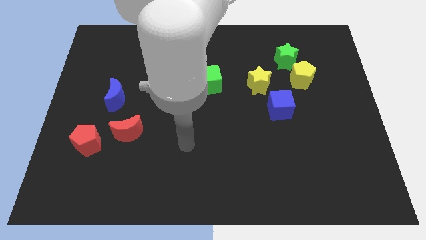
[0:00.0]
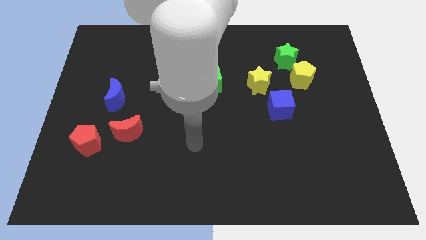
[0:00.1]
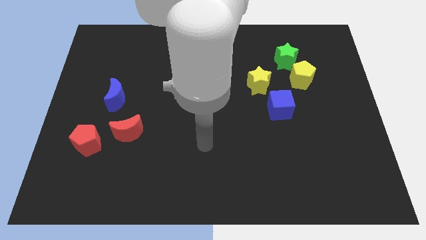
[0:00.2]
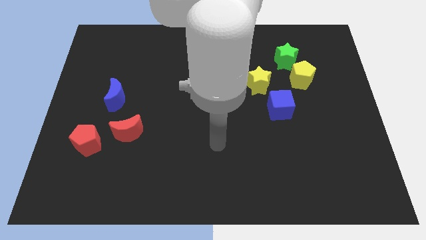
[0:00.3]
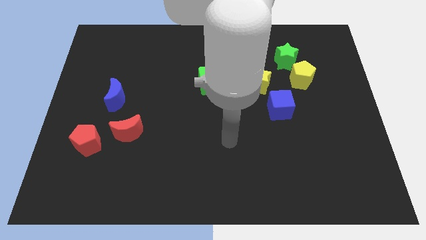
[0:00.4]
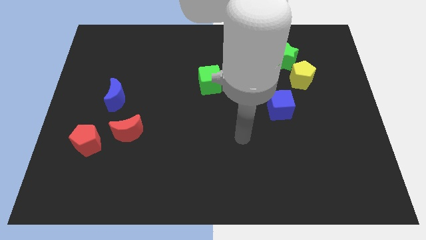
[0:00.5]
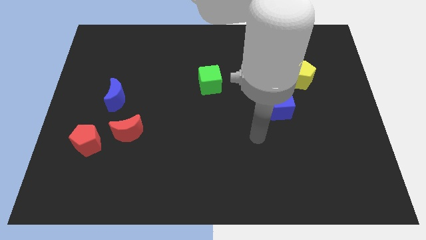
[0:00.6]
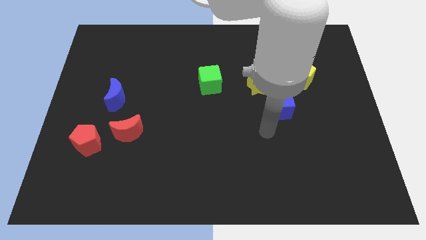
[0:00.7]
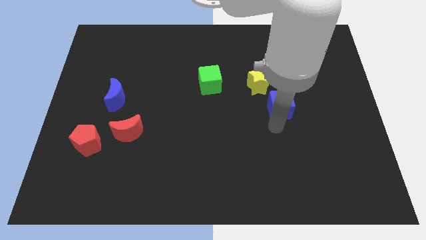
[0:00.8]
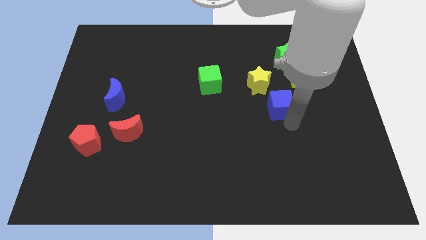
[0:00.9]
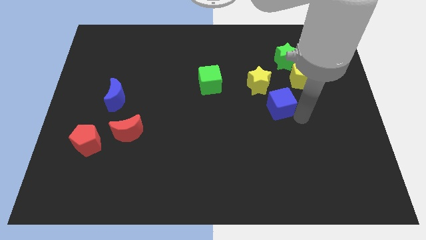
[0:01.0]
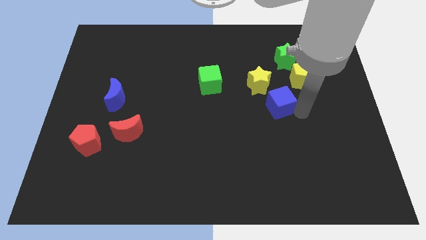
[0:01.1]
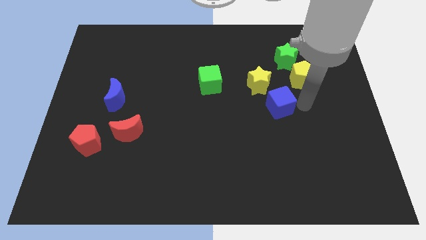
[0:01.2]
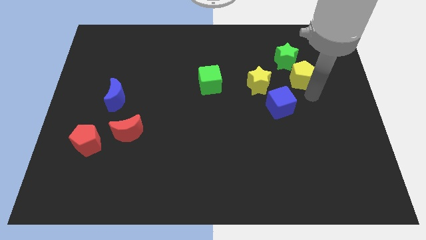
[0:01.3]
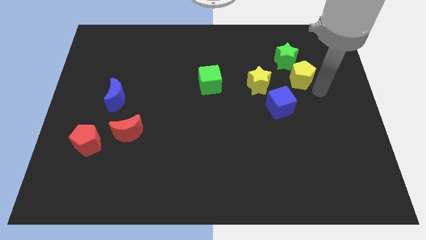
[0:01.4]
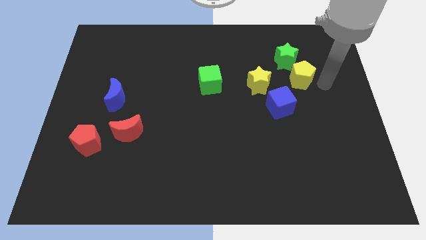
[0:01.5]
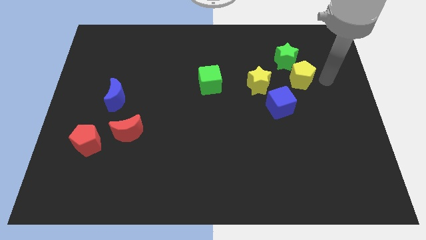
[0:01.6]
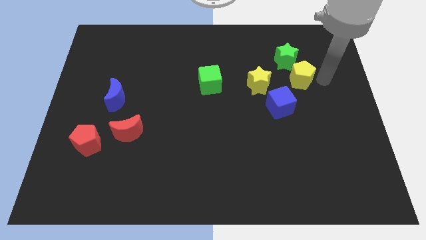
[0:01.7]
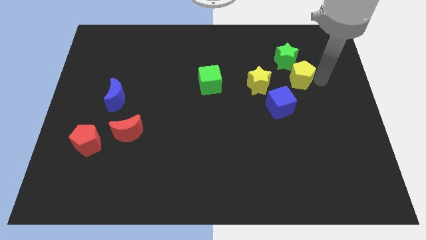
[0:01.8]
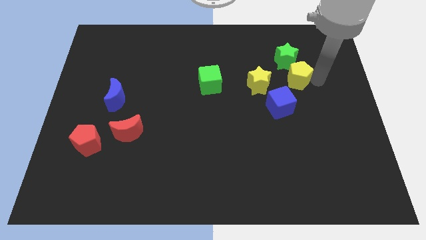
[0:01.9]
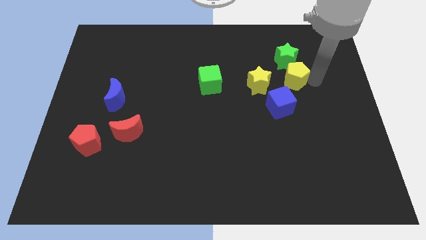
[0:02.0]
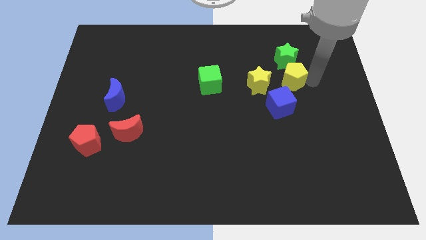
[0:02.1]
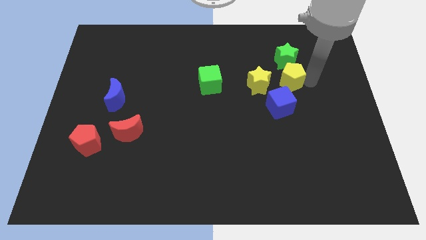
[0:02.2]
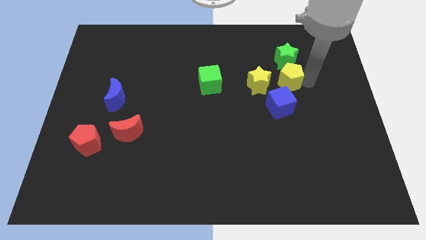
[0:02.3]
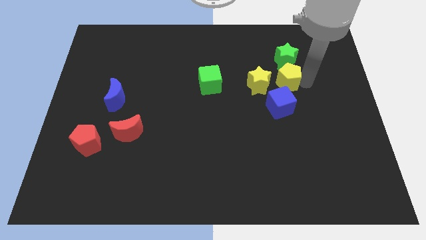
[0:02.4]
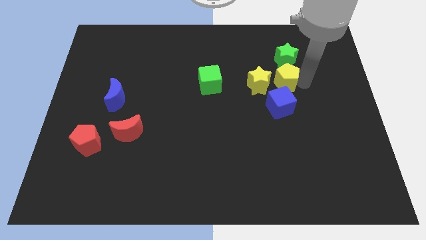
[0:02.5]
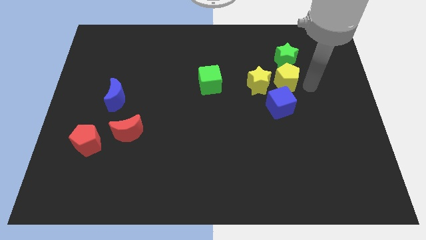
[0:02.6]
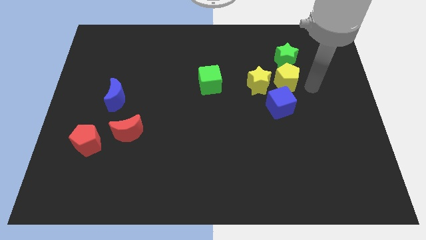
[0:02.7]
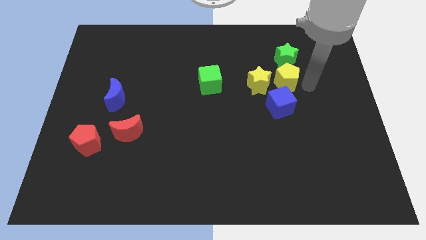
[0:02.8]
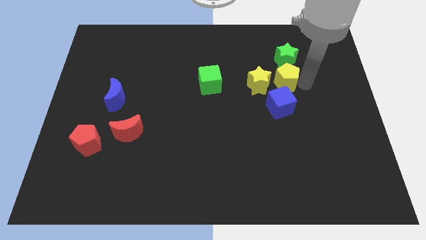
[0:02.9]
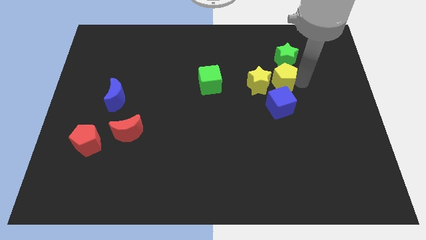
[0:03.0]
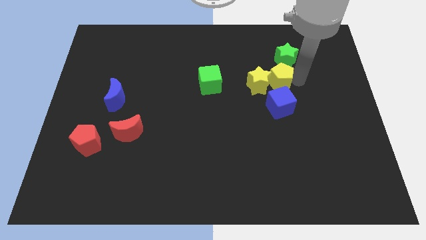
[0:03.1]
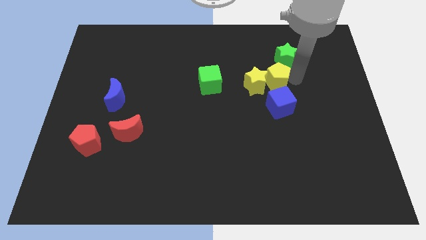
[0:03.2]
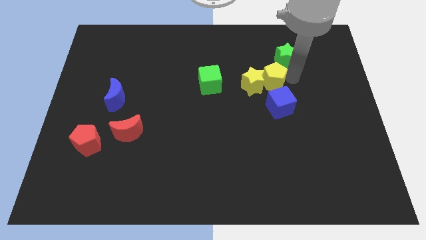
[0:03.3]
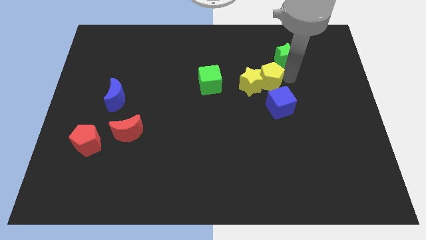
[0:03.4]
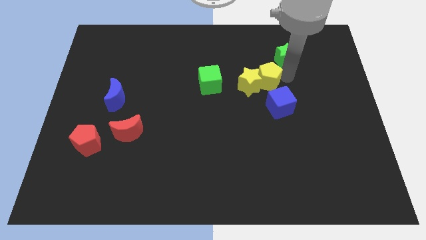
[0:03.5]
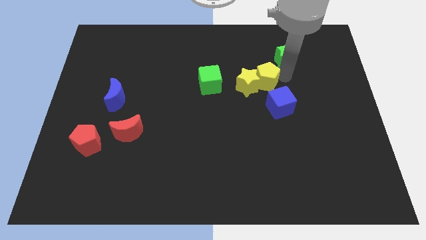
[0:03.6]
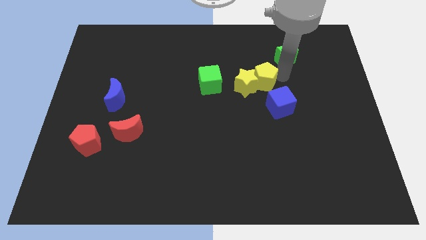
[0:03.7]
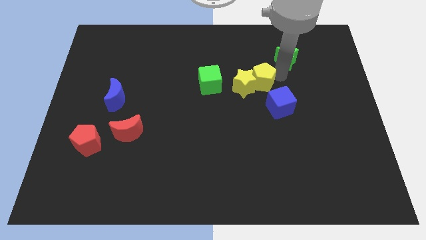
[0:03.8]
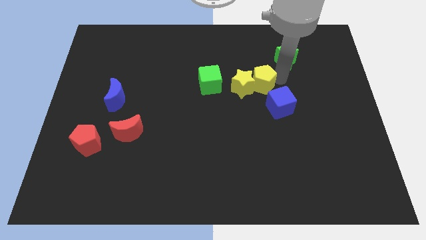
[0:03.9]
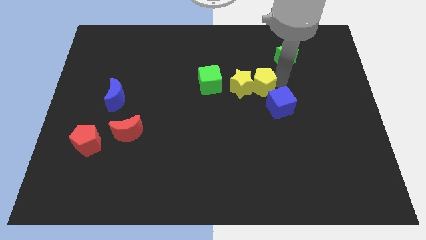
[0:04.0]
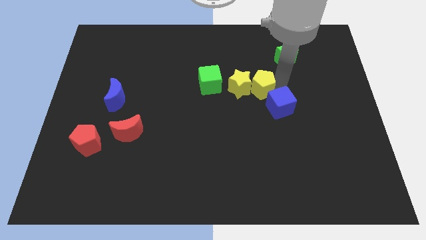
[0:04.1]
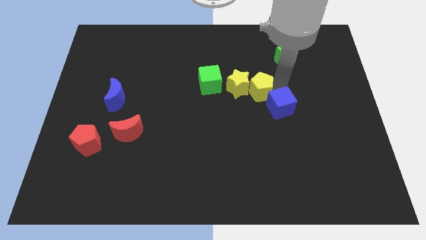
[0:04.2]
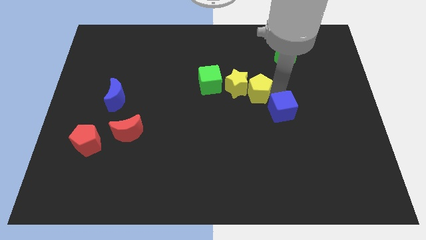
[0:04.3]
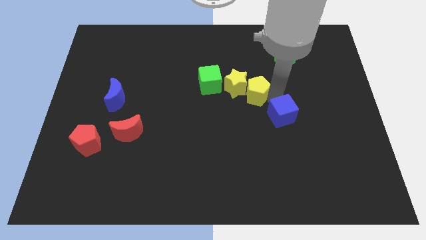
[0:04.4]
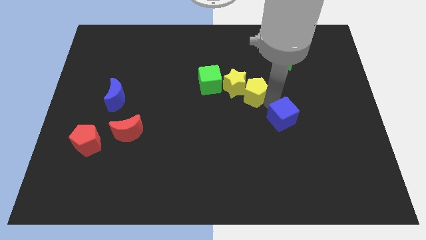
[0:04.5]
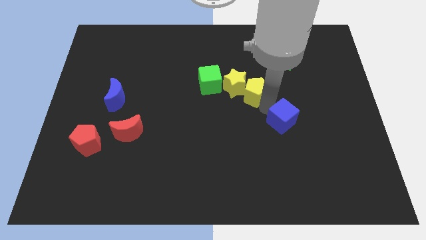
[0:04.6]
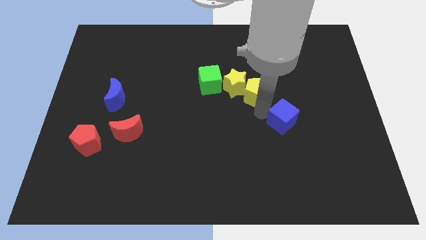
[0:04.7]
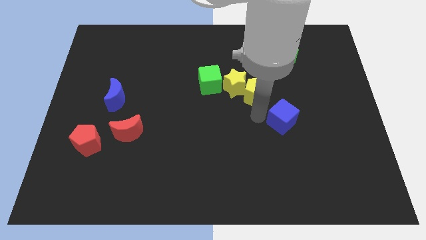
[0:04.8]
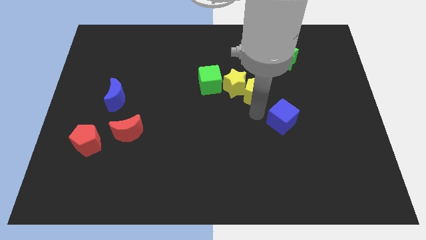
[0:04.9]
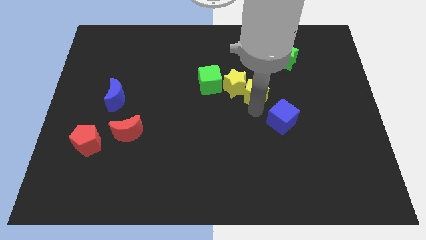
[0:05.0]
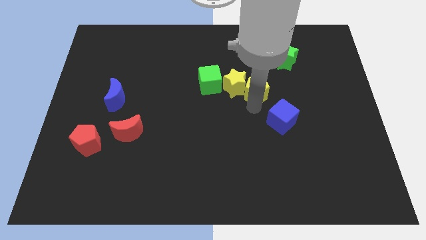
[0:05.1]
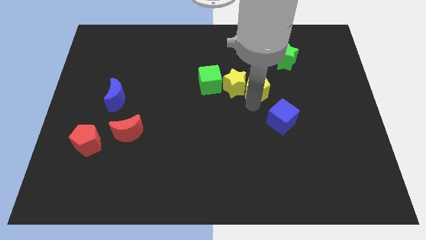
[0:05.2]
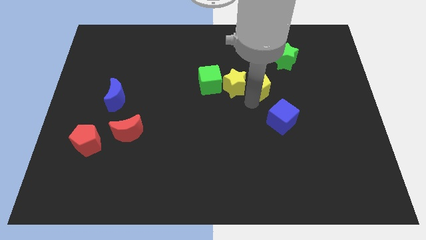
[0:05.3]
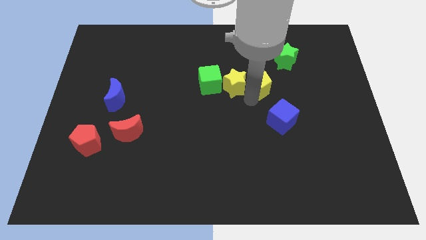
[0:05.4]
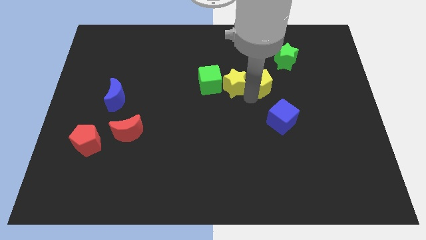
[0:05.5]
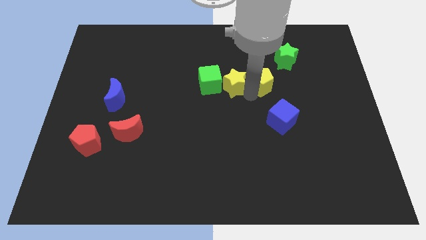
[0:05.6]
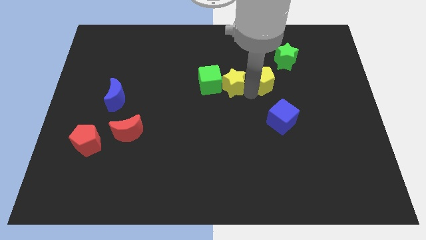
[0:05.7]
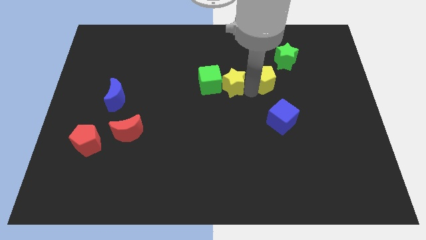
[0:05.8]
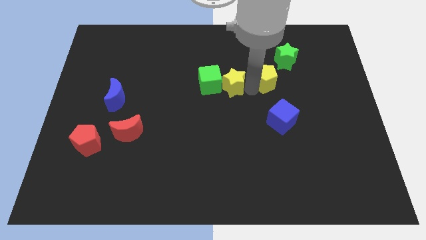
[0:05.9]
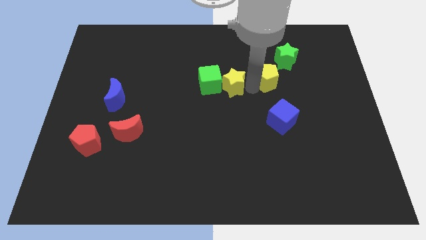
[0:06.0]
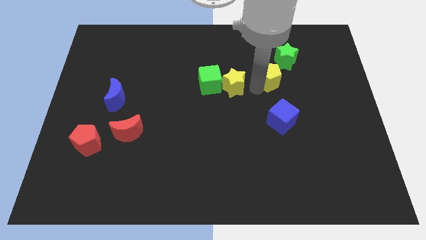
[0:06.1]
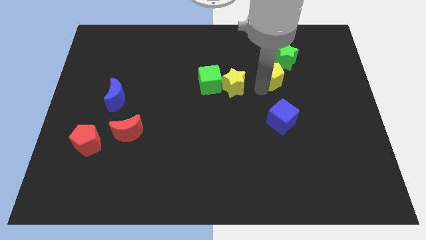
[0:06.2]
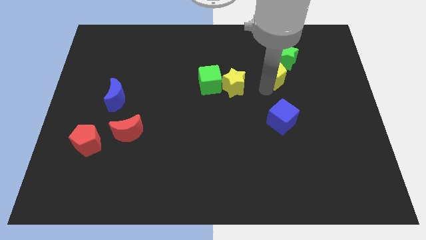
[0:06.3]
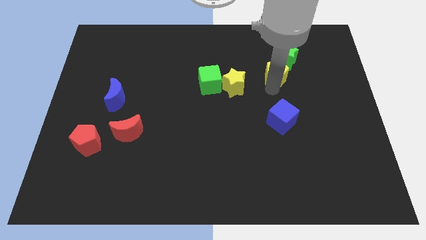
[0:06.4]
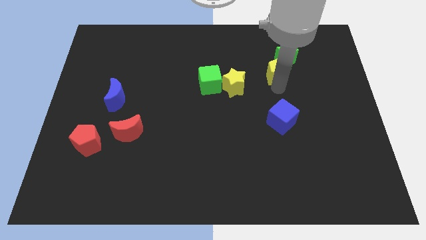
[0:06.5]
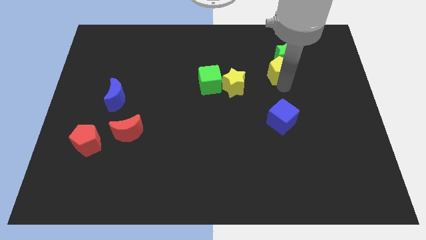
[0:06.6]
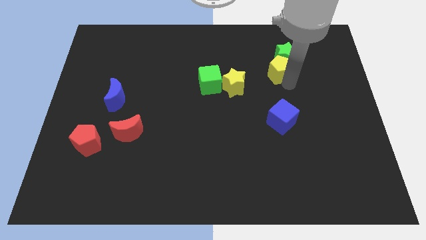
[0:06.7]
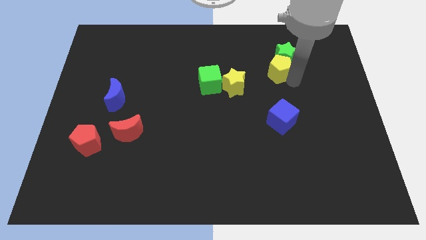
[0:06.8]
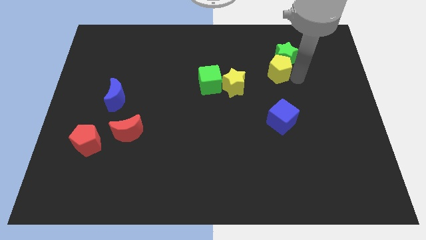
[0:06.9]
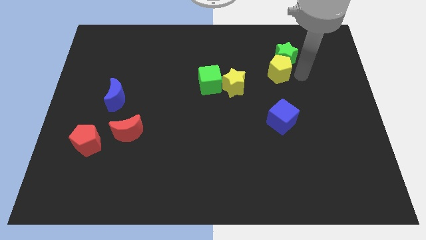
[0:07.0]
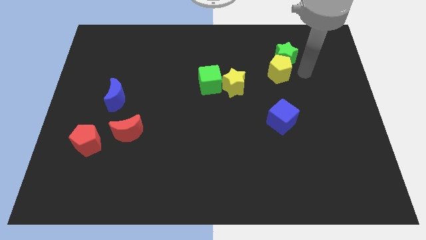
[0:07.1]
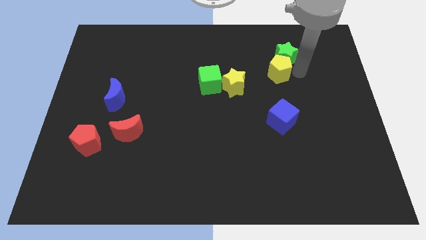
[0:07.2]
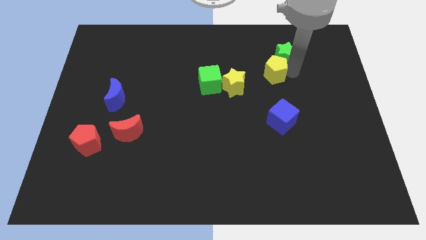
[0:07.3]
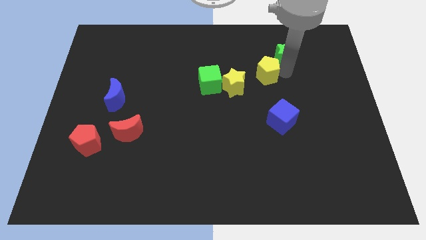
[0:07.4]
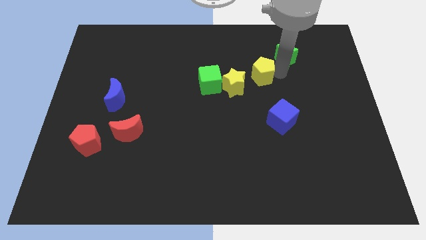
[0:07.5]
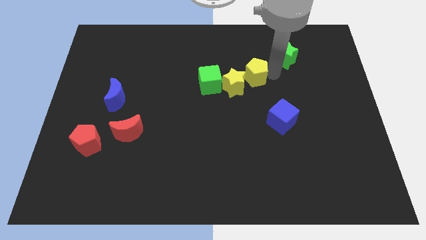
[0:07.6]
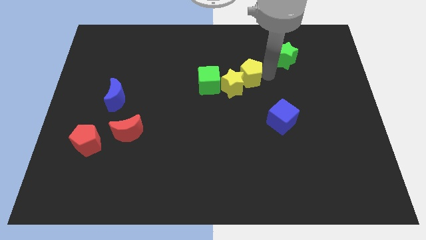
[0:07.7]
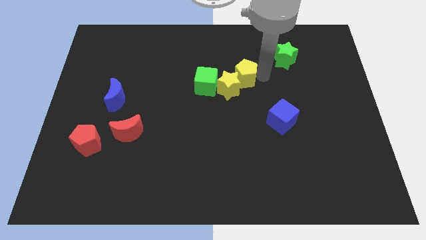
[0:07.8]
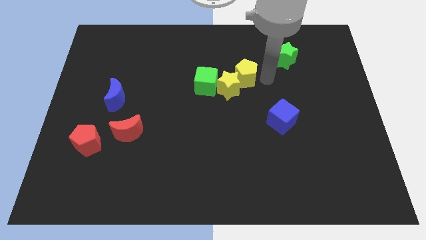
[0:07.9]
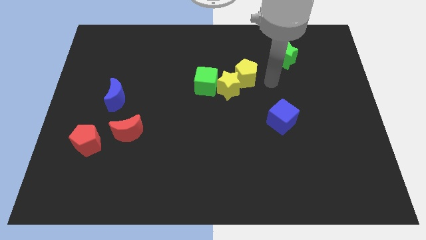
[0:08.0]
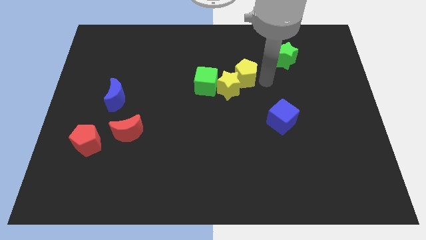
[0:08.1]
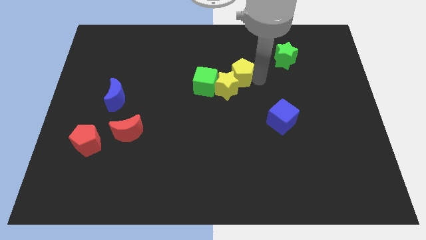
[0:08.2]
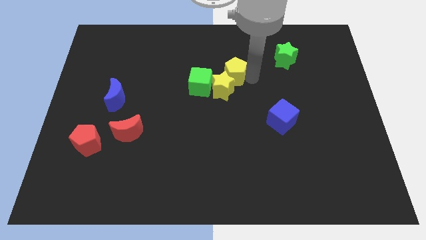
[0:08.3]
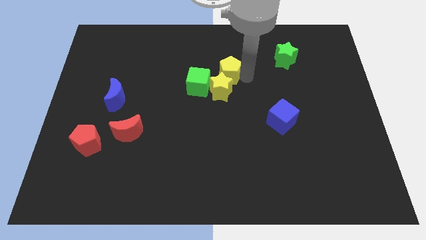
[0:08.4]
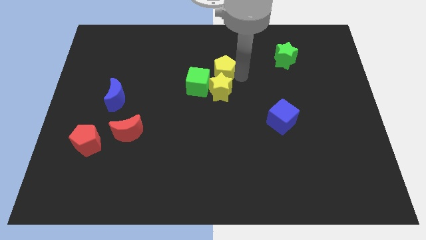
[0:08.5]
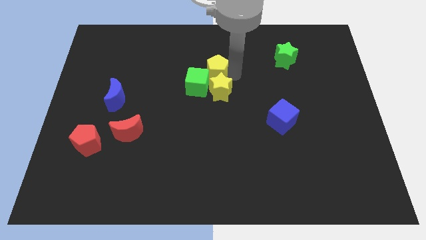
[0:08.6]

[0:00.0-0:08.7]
slide the yellow pentagon left
